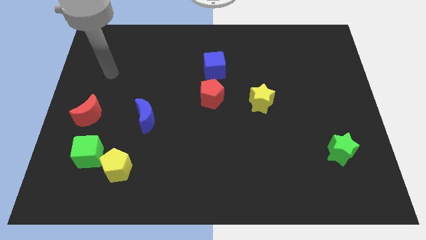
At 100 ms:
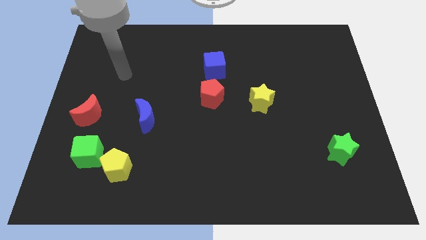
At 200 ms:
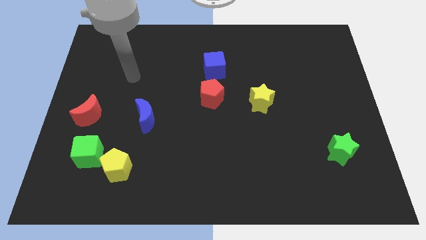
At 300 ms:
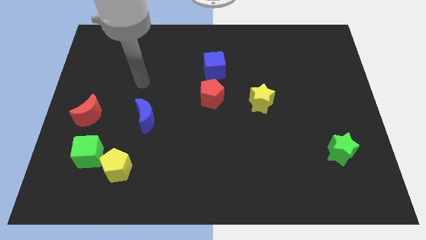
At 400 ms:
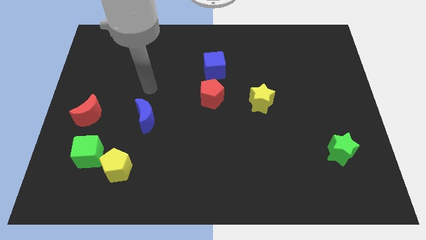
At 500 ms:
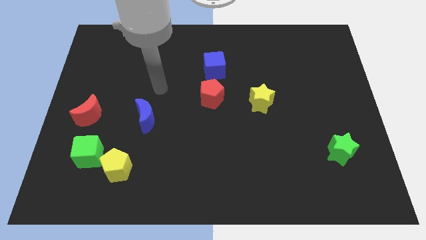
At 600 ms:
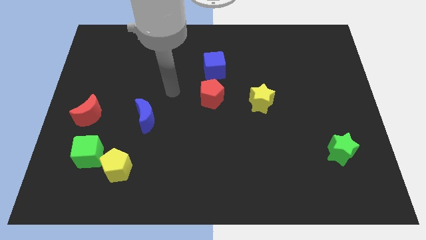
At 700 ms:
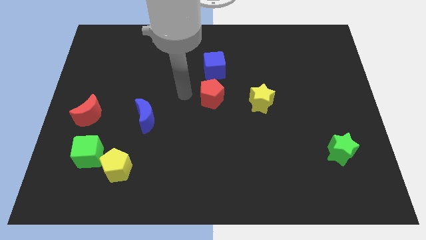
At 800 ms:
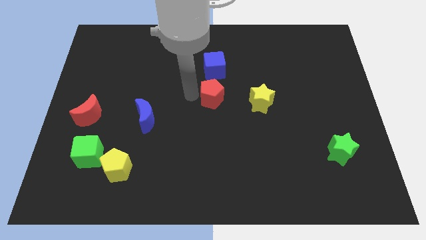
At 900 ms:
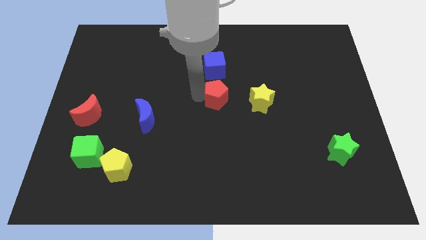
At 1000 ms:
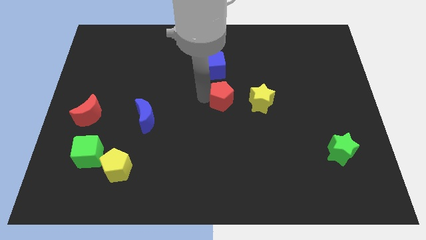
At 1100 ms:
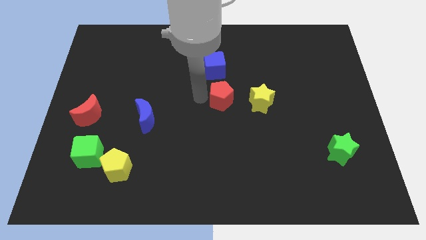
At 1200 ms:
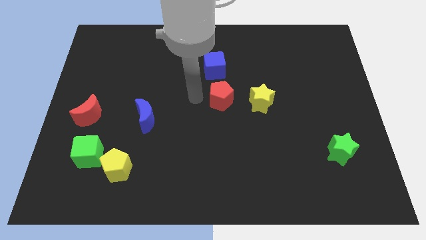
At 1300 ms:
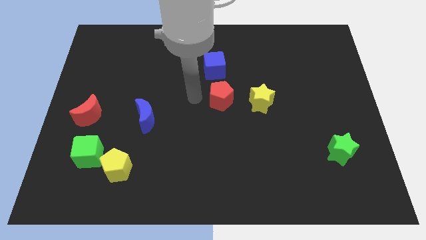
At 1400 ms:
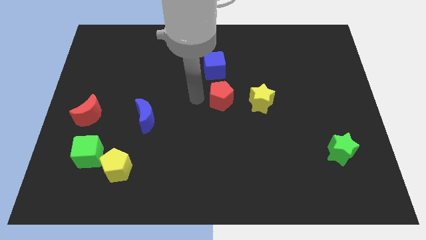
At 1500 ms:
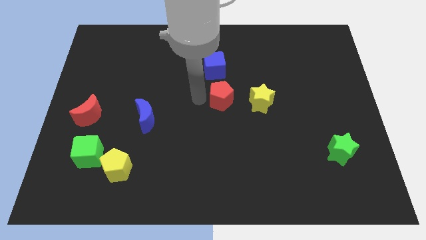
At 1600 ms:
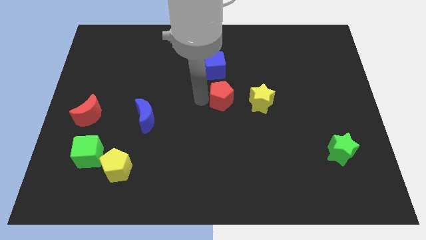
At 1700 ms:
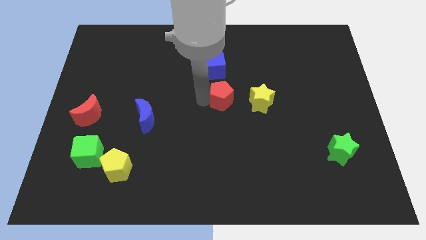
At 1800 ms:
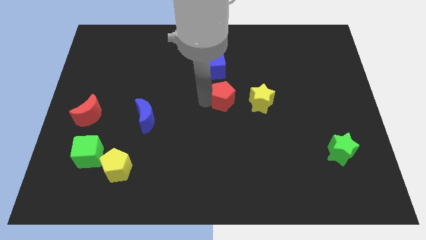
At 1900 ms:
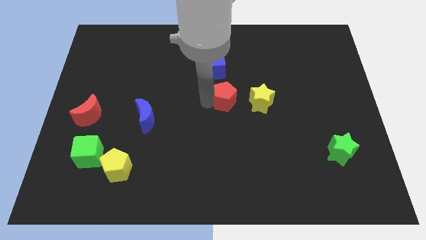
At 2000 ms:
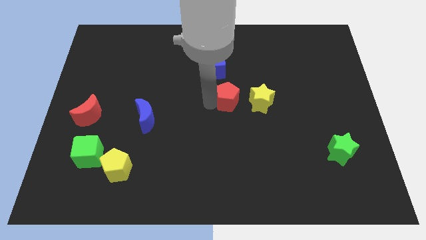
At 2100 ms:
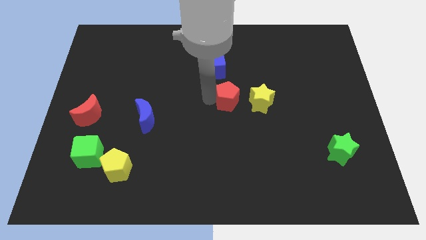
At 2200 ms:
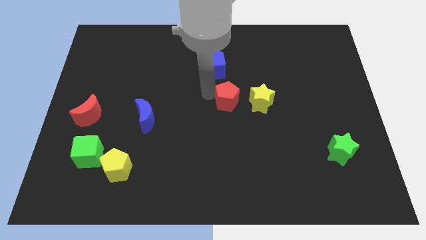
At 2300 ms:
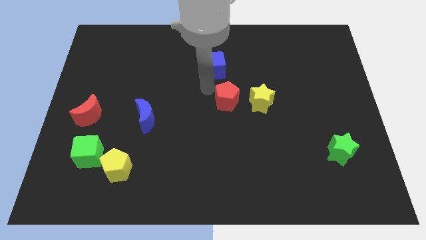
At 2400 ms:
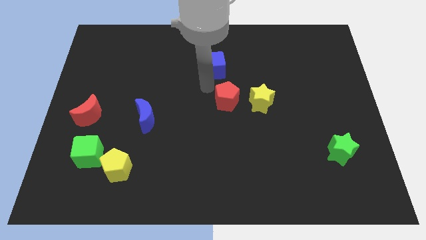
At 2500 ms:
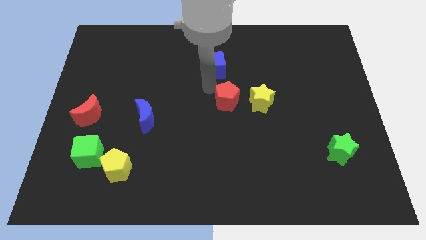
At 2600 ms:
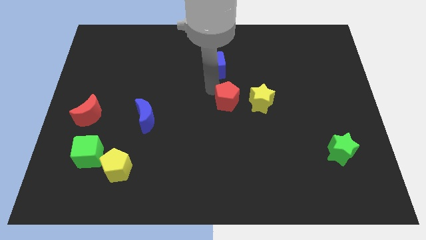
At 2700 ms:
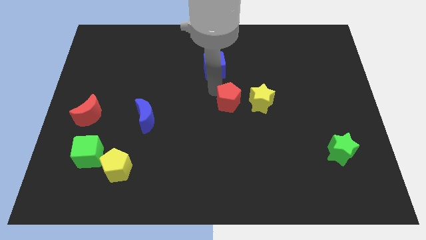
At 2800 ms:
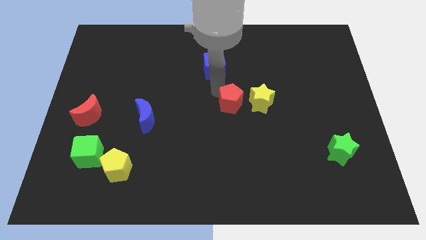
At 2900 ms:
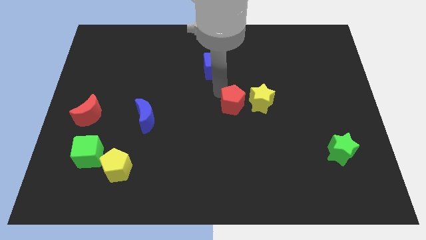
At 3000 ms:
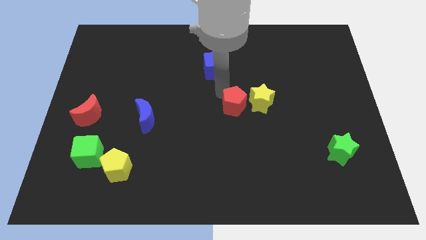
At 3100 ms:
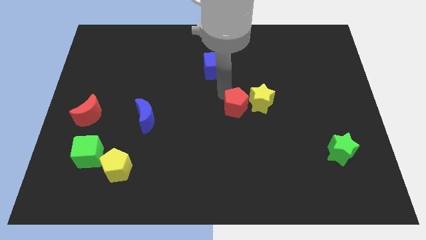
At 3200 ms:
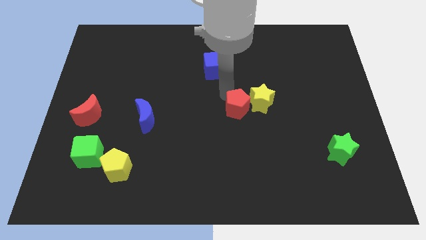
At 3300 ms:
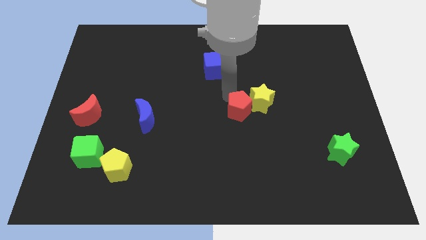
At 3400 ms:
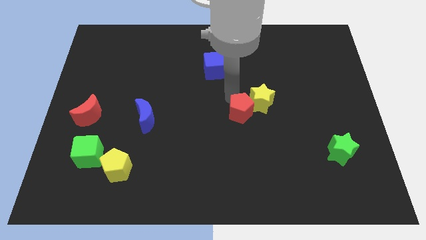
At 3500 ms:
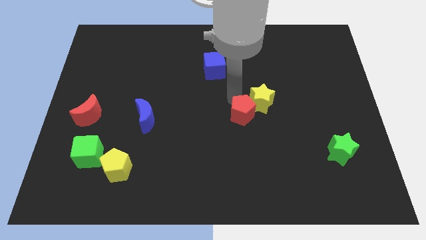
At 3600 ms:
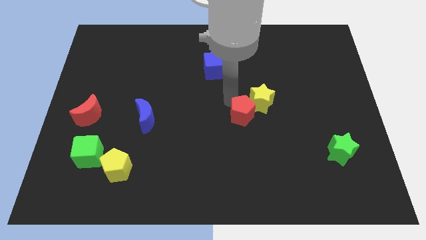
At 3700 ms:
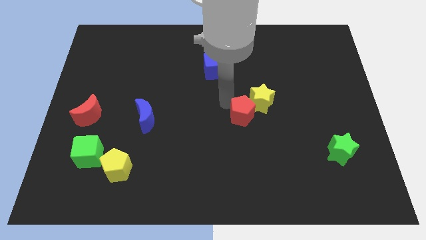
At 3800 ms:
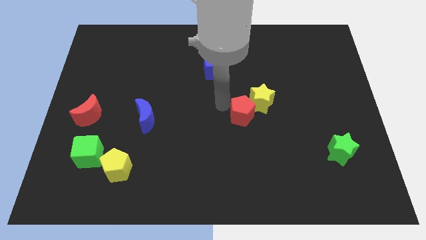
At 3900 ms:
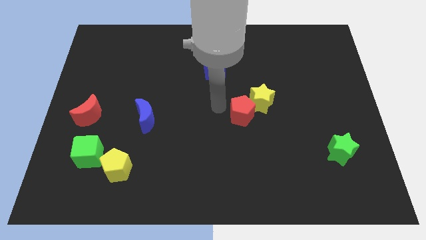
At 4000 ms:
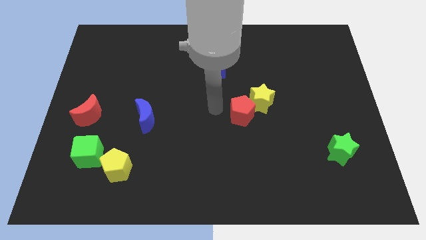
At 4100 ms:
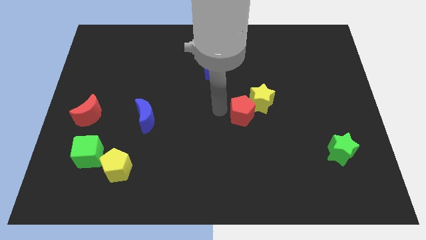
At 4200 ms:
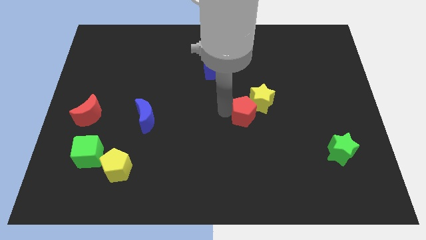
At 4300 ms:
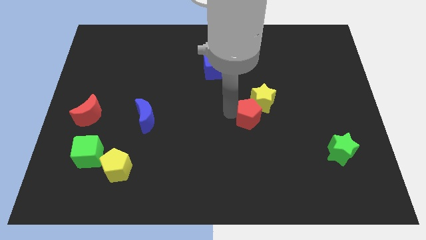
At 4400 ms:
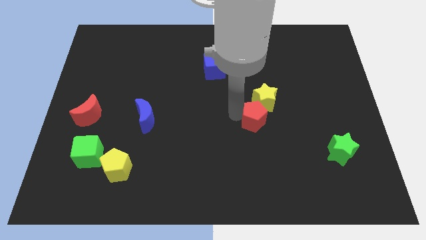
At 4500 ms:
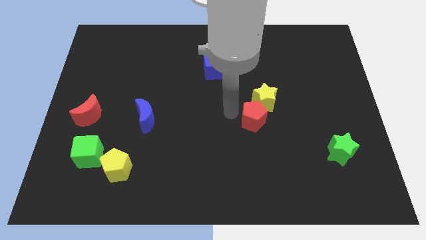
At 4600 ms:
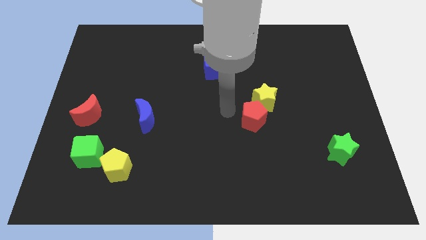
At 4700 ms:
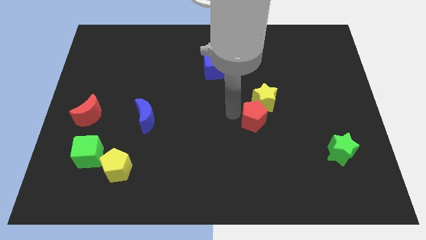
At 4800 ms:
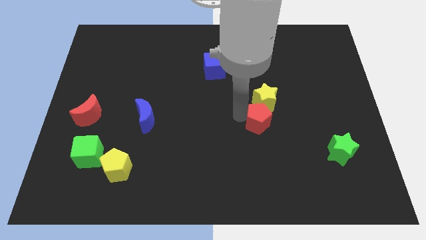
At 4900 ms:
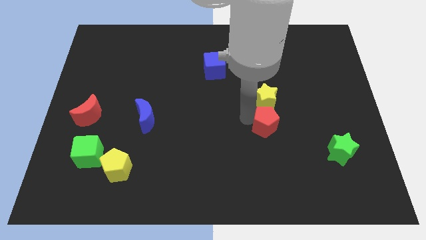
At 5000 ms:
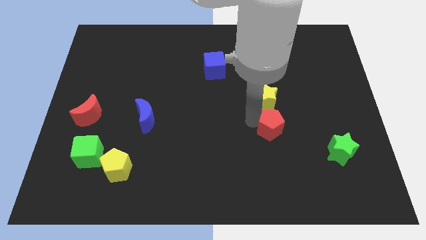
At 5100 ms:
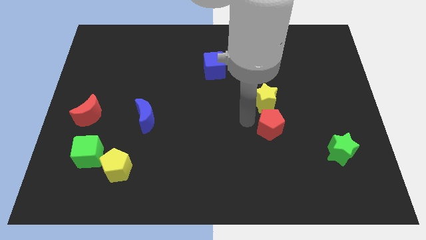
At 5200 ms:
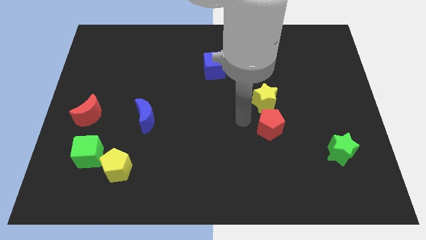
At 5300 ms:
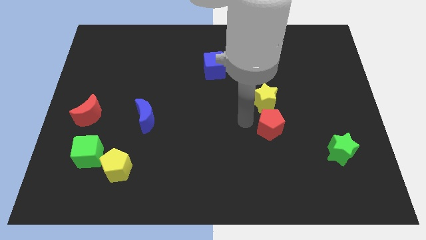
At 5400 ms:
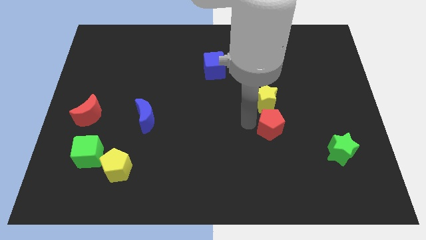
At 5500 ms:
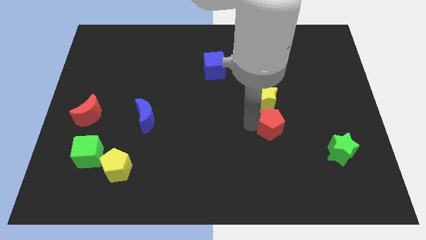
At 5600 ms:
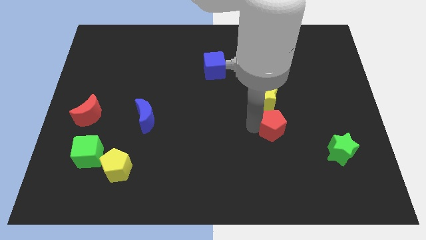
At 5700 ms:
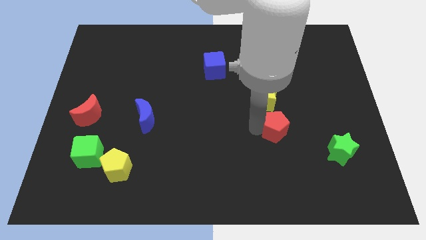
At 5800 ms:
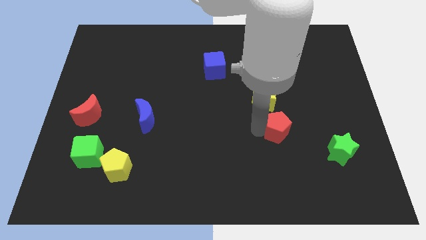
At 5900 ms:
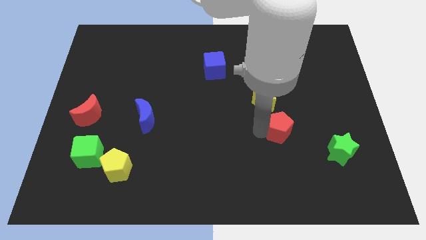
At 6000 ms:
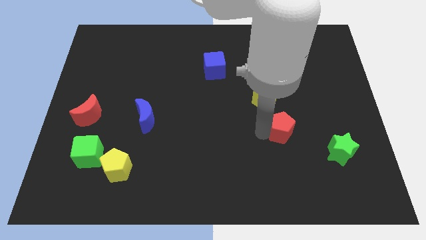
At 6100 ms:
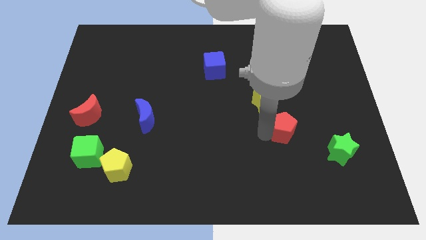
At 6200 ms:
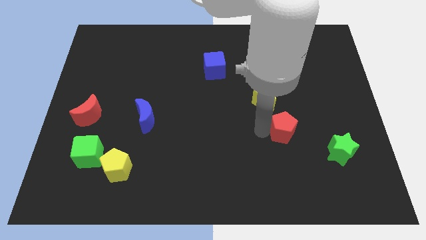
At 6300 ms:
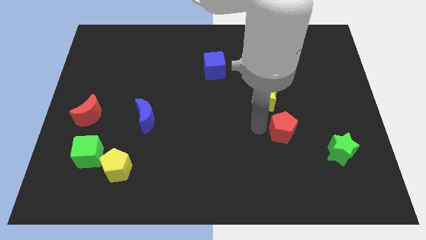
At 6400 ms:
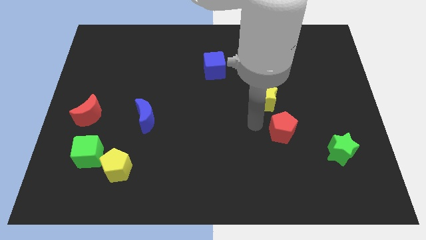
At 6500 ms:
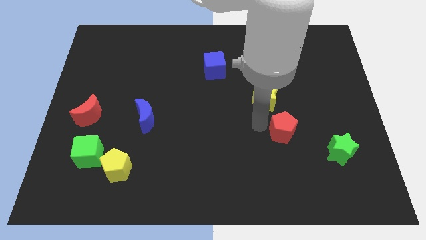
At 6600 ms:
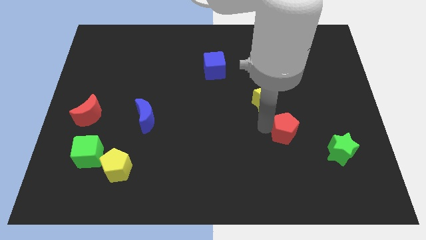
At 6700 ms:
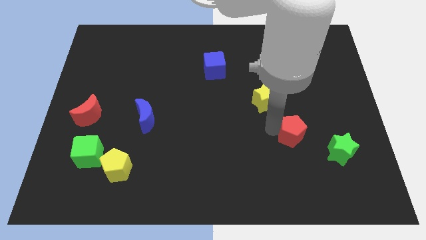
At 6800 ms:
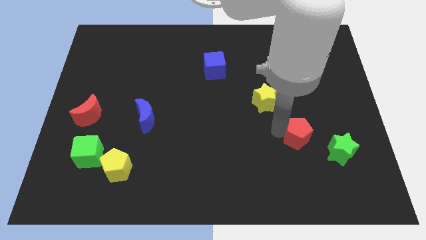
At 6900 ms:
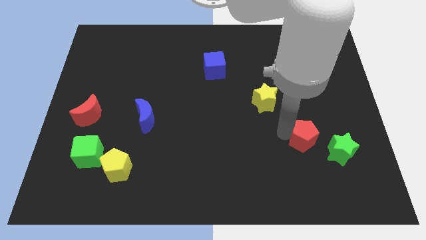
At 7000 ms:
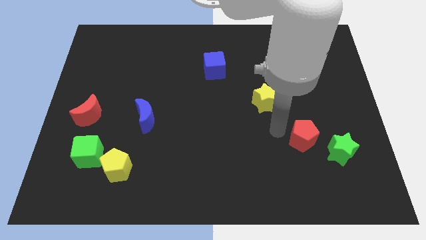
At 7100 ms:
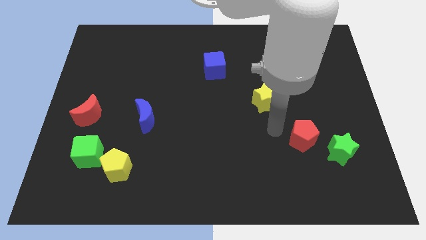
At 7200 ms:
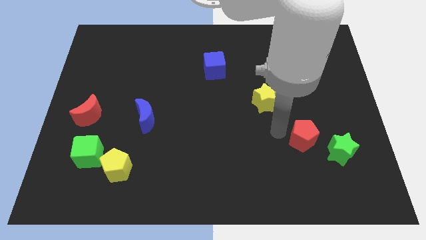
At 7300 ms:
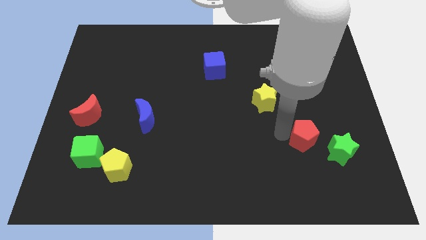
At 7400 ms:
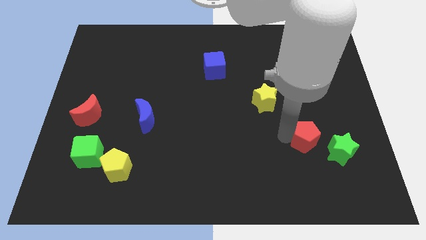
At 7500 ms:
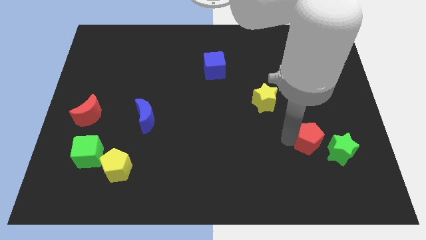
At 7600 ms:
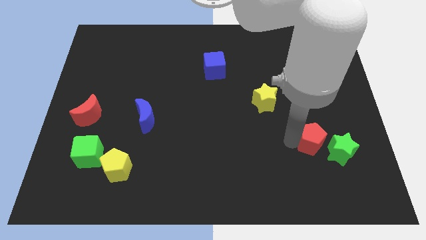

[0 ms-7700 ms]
push the red pentagon next to the green star
